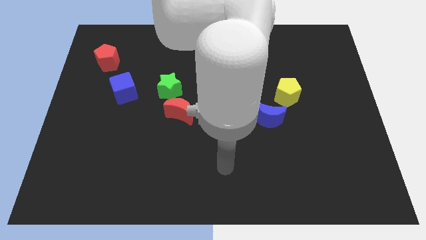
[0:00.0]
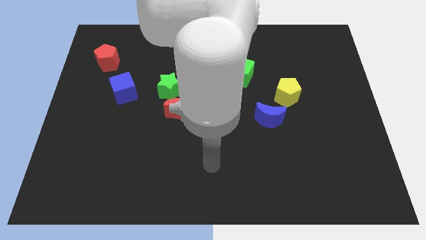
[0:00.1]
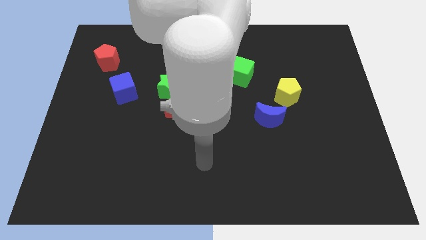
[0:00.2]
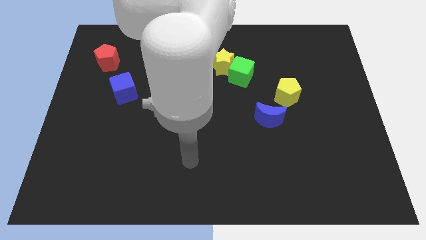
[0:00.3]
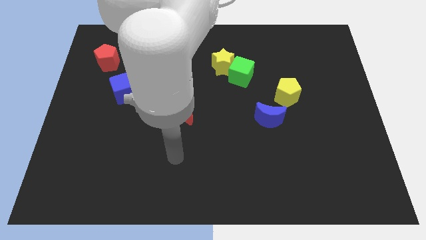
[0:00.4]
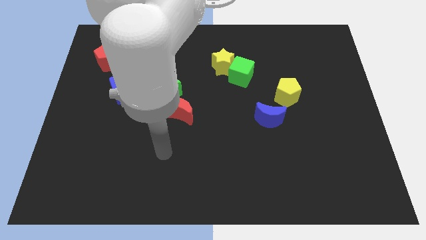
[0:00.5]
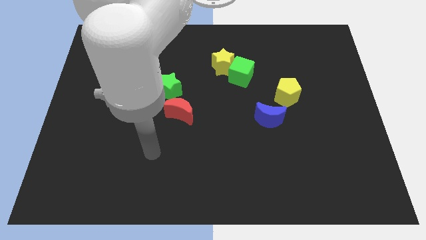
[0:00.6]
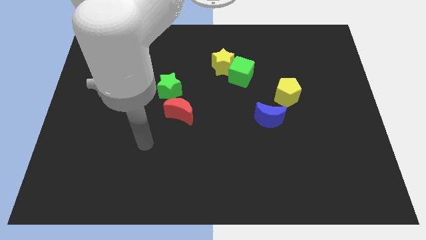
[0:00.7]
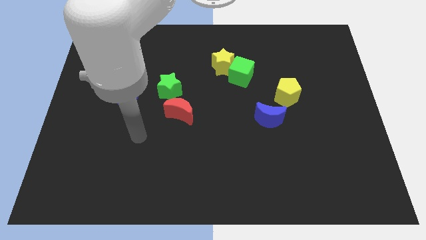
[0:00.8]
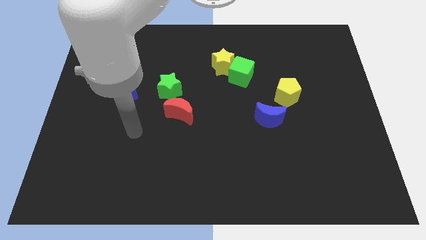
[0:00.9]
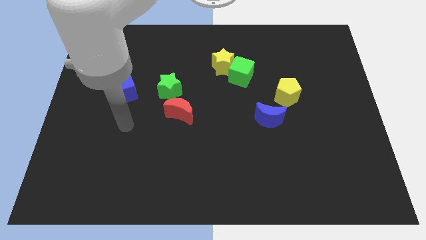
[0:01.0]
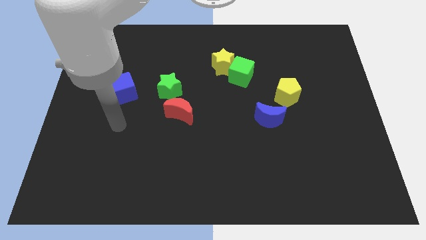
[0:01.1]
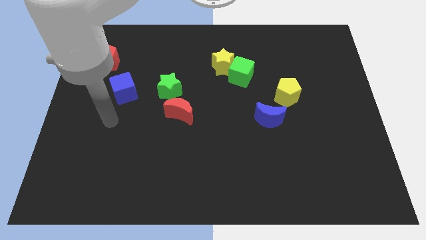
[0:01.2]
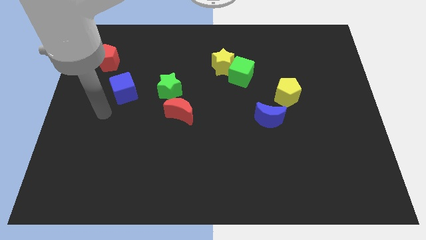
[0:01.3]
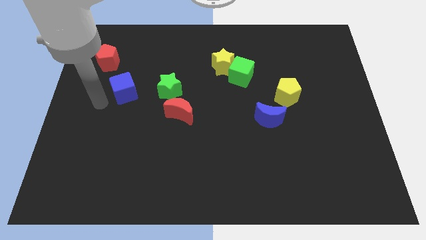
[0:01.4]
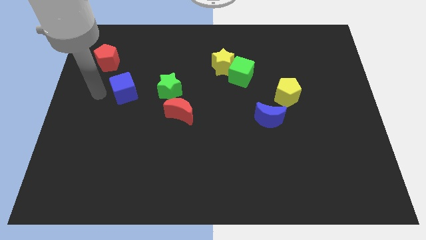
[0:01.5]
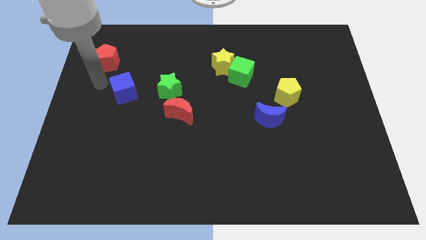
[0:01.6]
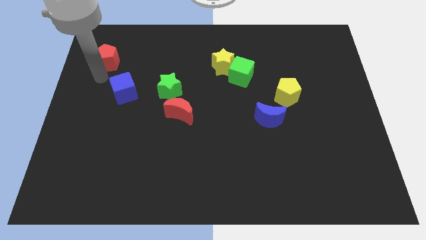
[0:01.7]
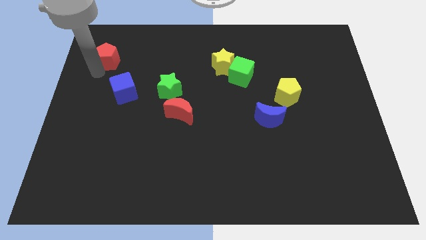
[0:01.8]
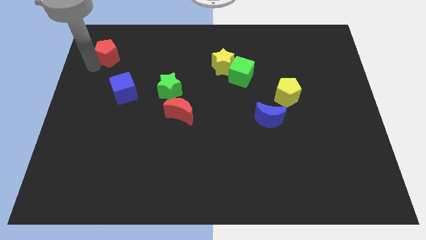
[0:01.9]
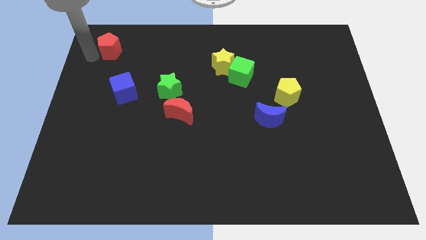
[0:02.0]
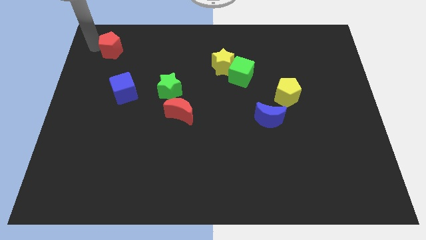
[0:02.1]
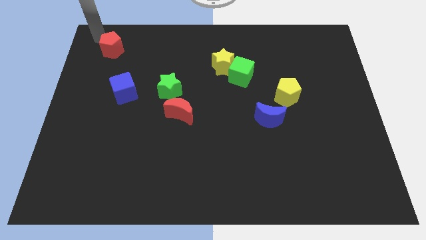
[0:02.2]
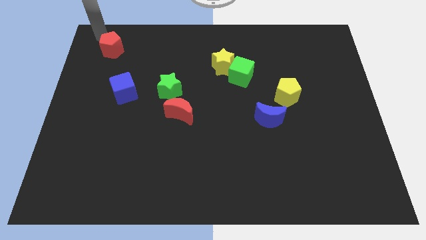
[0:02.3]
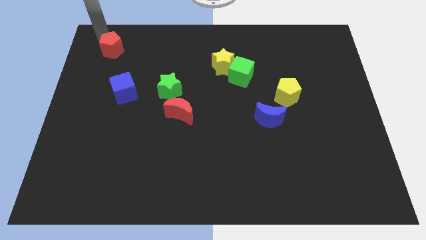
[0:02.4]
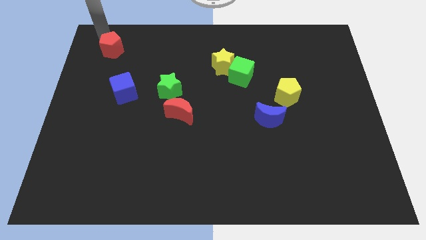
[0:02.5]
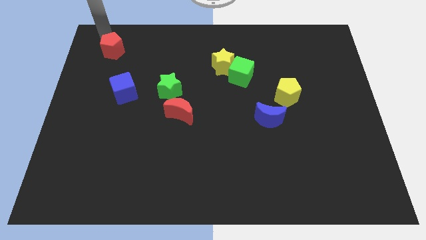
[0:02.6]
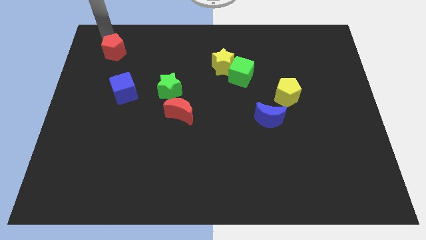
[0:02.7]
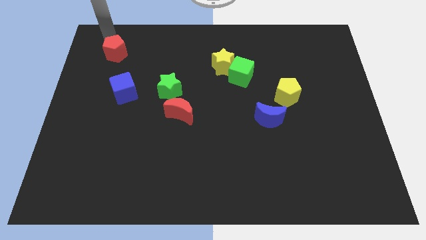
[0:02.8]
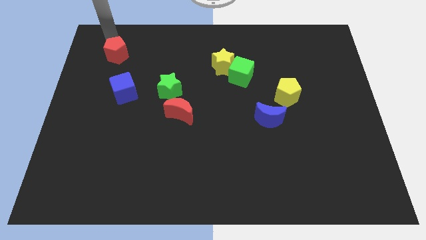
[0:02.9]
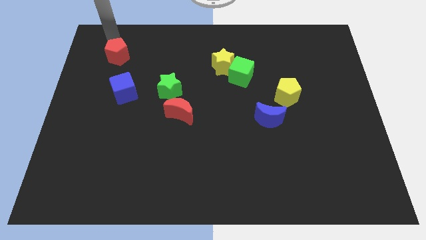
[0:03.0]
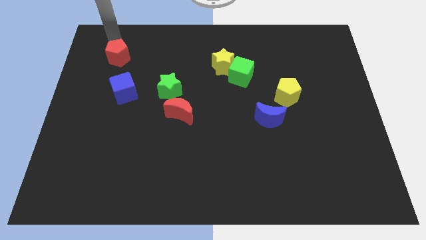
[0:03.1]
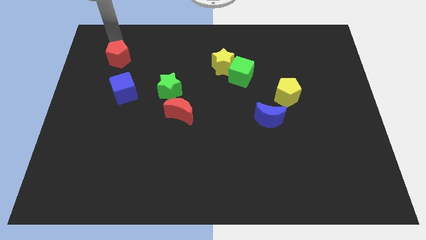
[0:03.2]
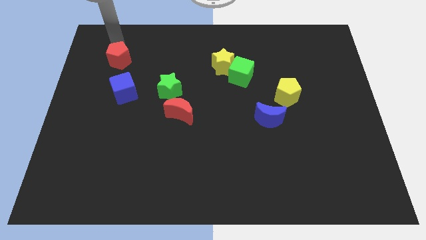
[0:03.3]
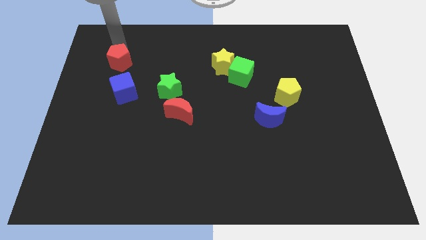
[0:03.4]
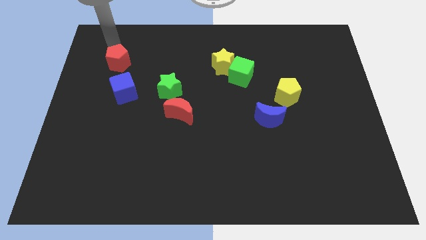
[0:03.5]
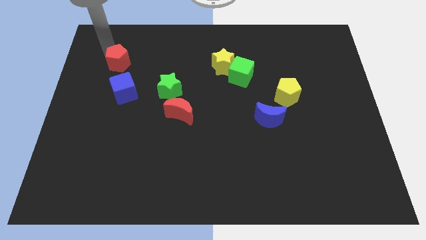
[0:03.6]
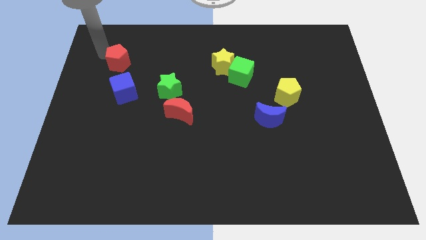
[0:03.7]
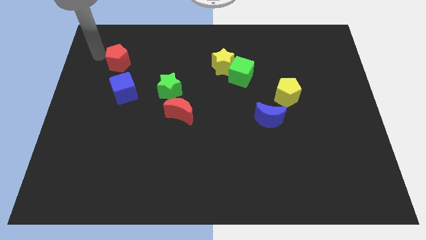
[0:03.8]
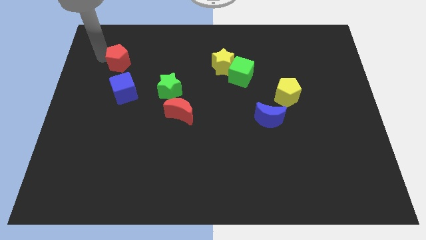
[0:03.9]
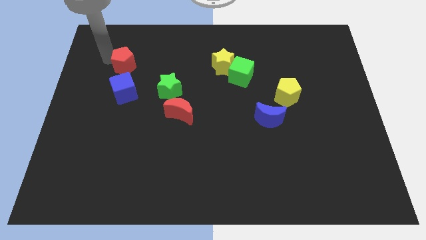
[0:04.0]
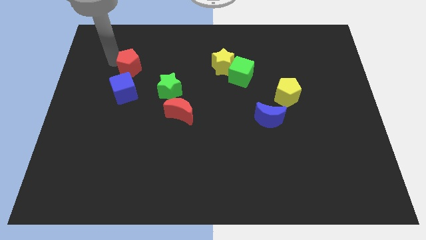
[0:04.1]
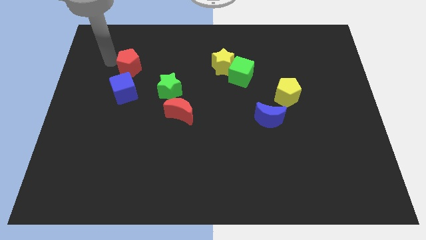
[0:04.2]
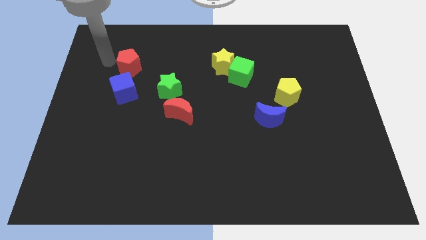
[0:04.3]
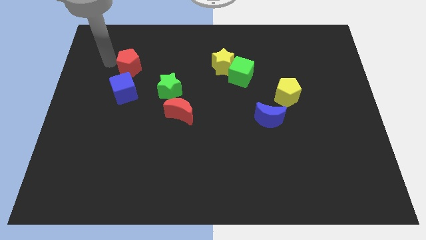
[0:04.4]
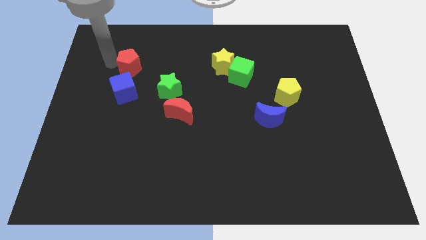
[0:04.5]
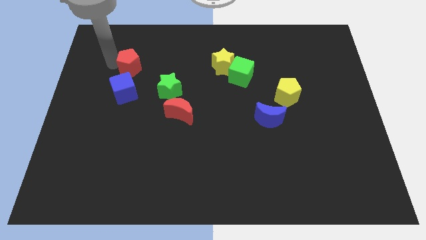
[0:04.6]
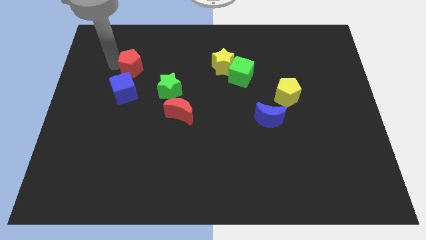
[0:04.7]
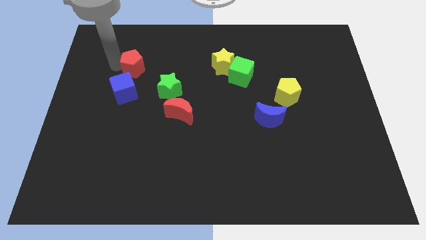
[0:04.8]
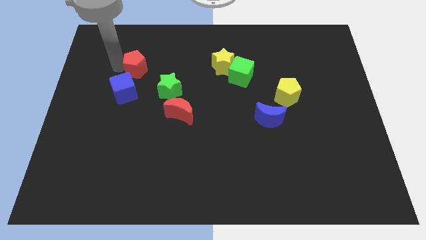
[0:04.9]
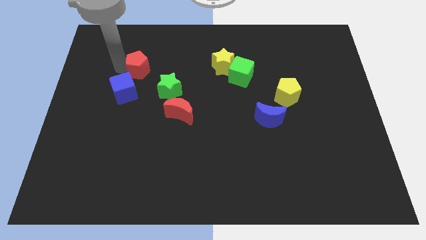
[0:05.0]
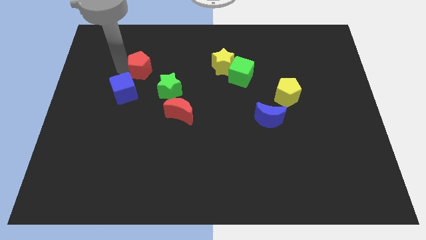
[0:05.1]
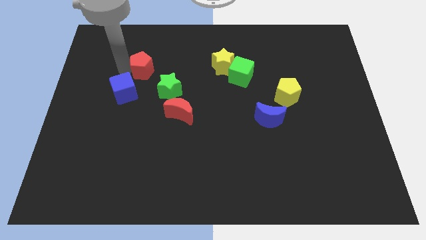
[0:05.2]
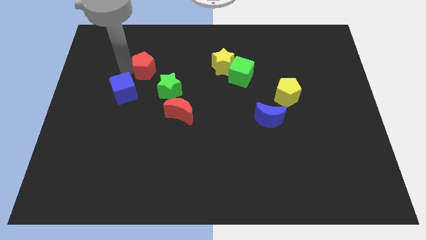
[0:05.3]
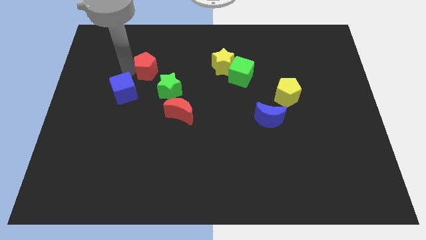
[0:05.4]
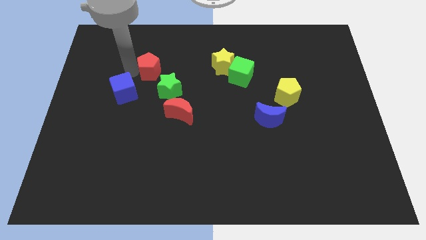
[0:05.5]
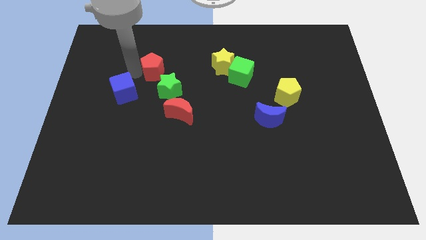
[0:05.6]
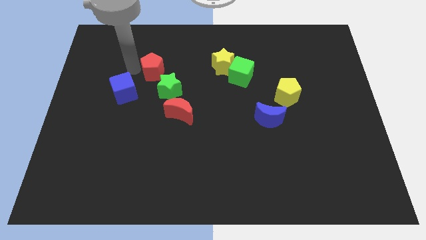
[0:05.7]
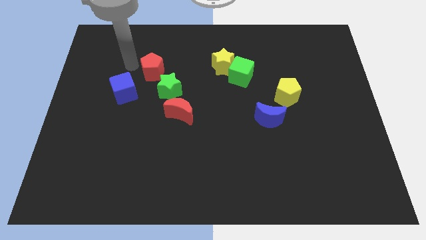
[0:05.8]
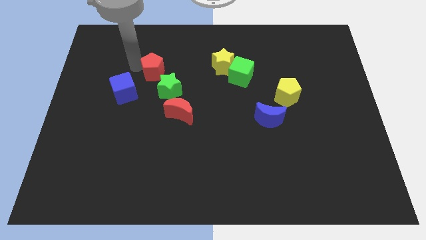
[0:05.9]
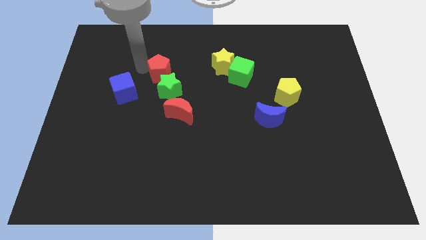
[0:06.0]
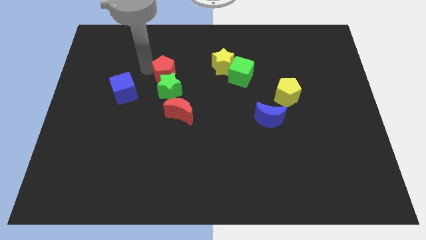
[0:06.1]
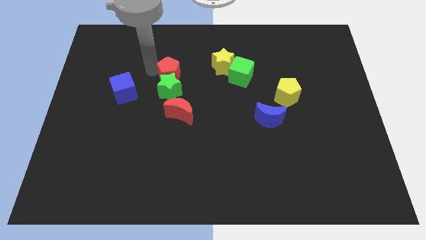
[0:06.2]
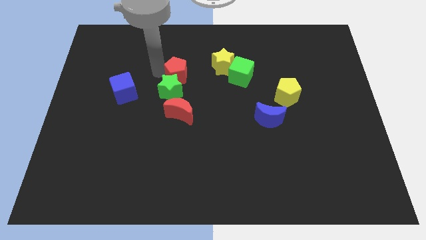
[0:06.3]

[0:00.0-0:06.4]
move the red pentagon to the middle of the board
